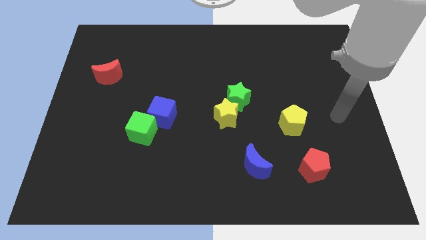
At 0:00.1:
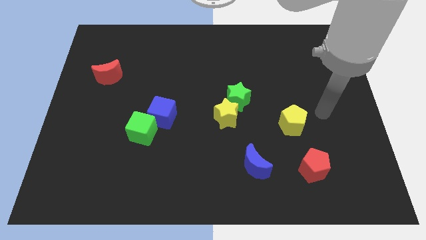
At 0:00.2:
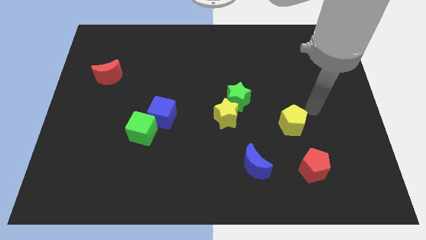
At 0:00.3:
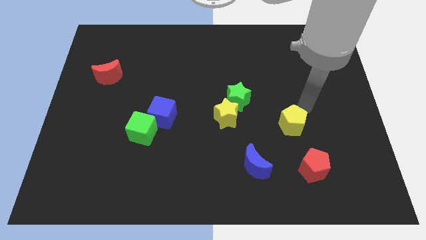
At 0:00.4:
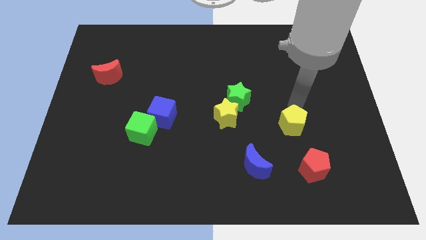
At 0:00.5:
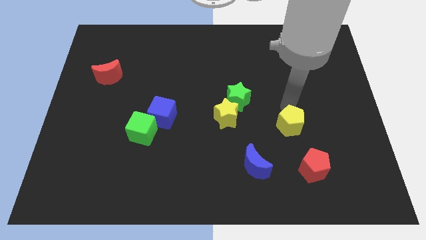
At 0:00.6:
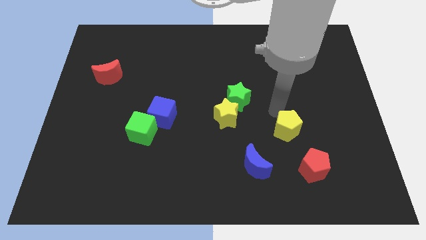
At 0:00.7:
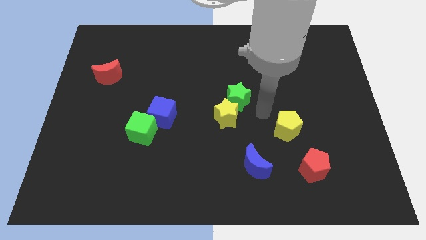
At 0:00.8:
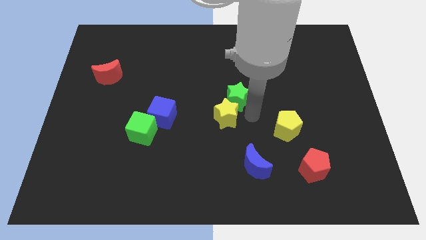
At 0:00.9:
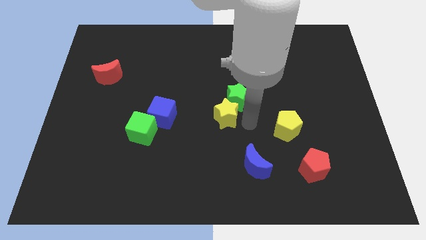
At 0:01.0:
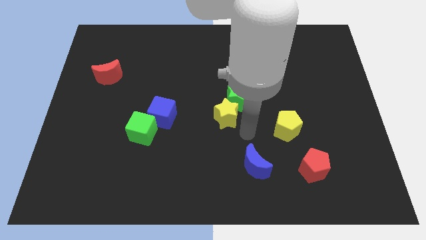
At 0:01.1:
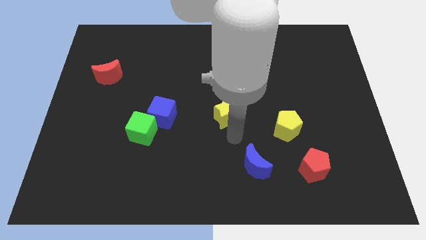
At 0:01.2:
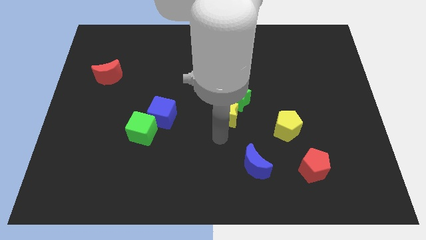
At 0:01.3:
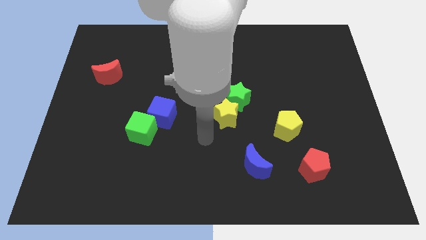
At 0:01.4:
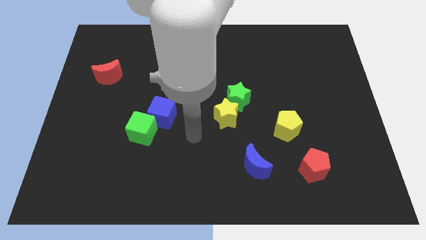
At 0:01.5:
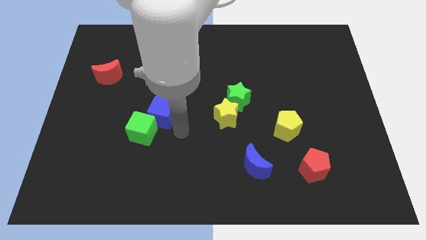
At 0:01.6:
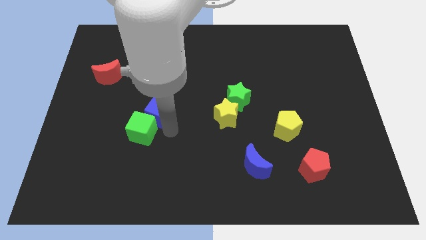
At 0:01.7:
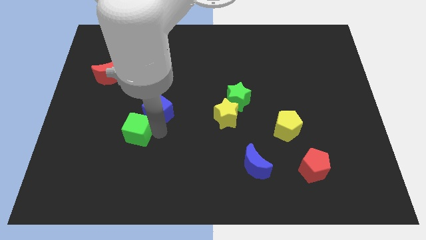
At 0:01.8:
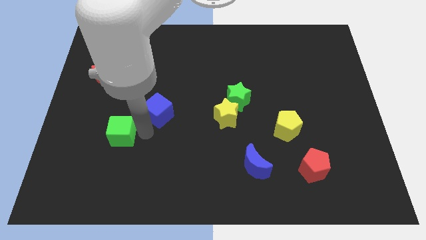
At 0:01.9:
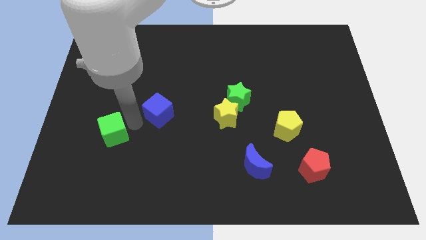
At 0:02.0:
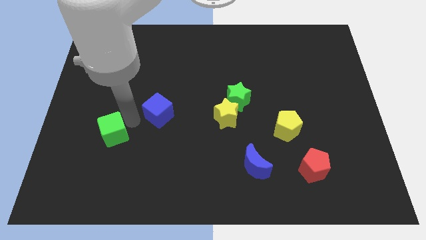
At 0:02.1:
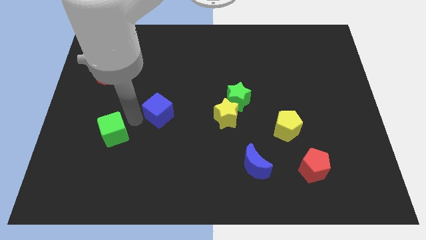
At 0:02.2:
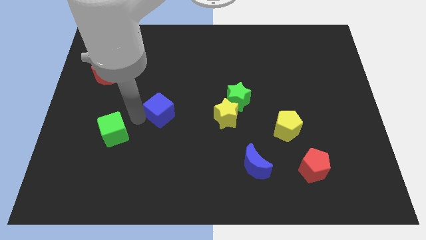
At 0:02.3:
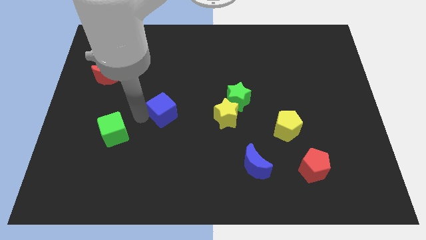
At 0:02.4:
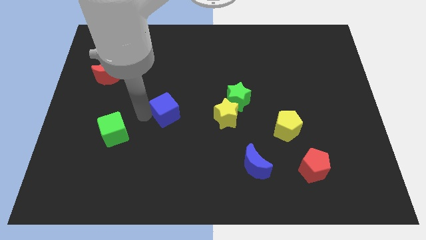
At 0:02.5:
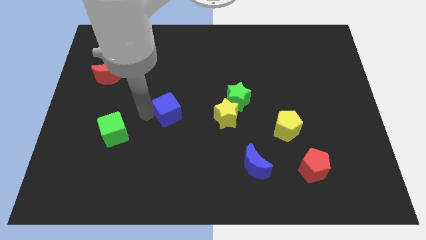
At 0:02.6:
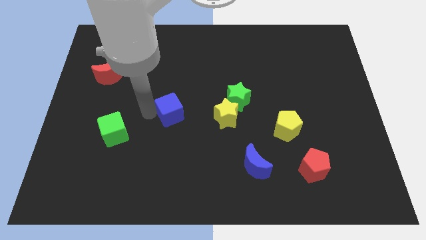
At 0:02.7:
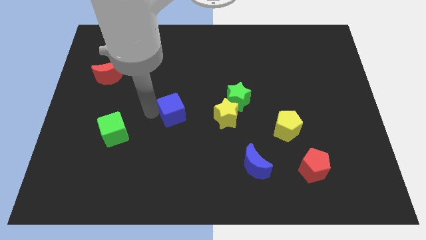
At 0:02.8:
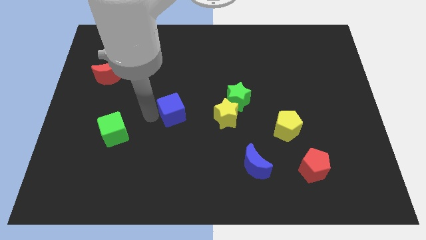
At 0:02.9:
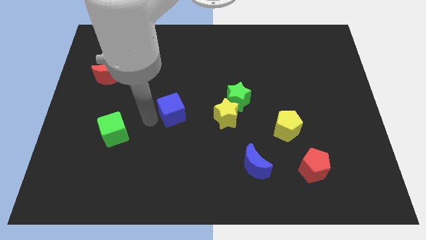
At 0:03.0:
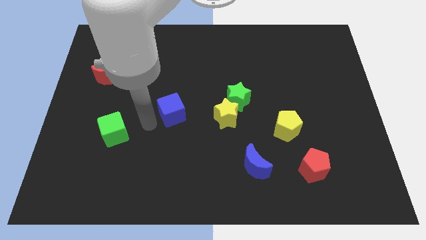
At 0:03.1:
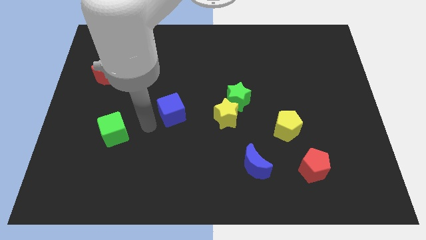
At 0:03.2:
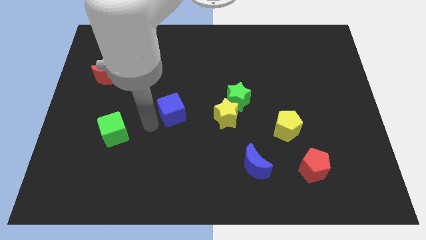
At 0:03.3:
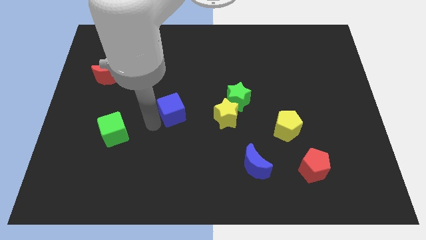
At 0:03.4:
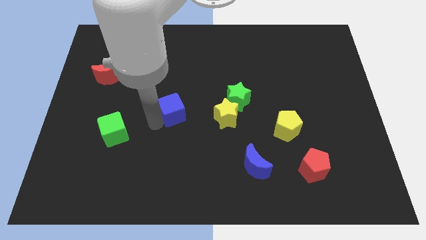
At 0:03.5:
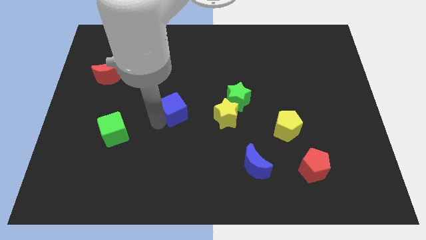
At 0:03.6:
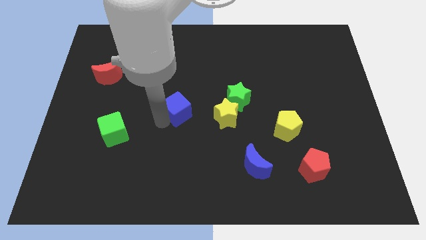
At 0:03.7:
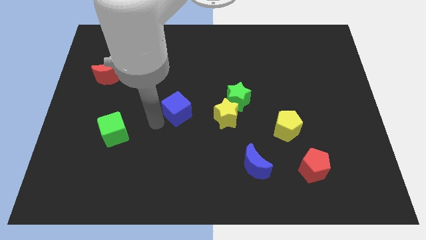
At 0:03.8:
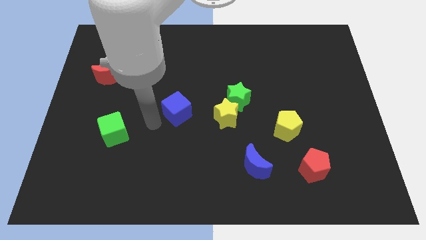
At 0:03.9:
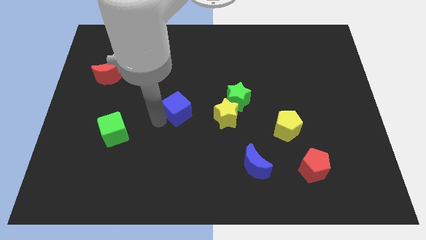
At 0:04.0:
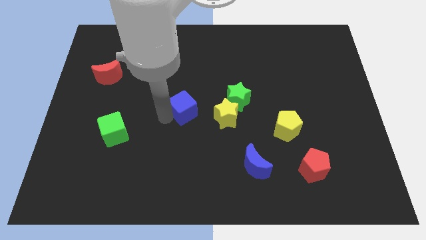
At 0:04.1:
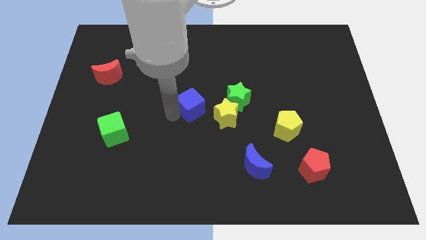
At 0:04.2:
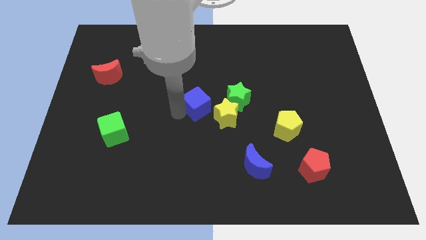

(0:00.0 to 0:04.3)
slightly push the blue cube upwards and right

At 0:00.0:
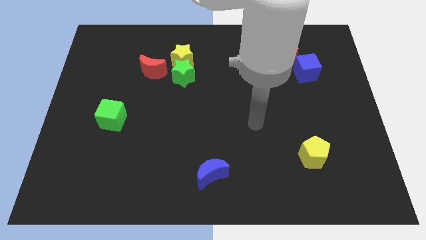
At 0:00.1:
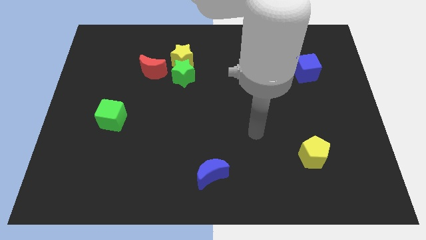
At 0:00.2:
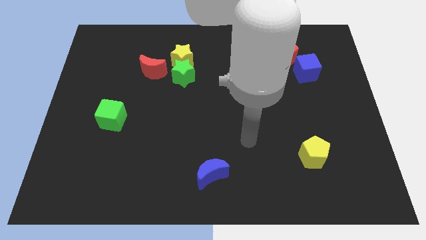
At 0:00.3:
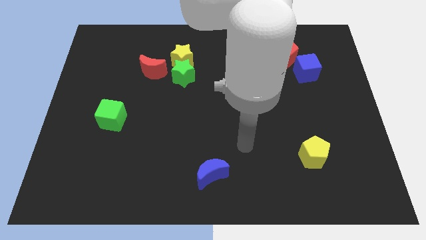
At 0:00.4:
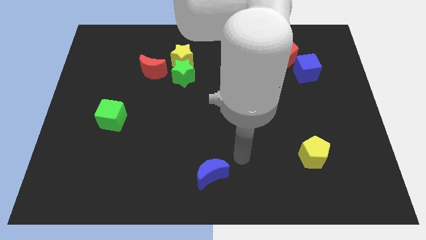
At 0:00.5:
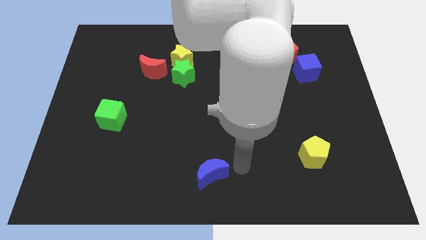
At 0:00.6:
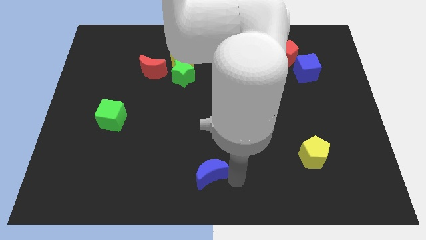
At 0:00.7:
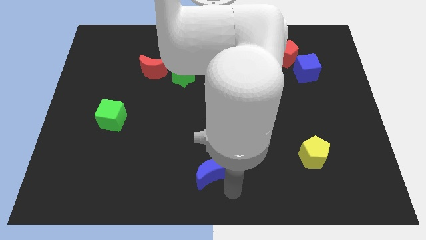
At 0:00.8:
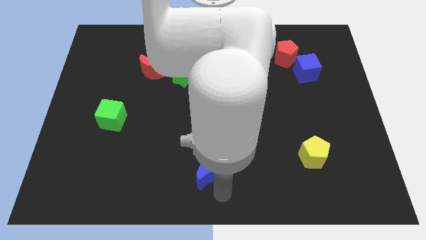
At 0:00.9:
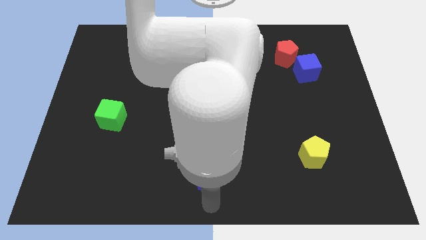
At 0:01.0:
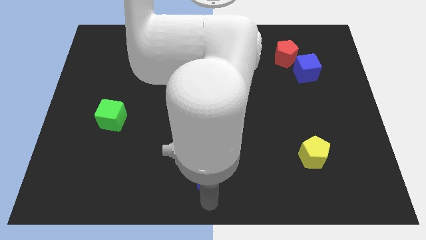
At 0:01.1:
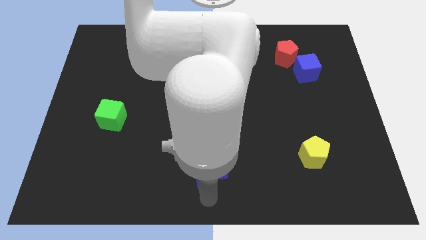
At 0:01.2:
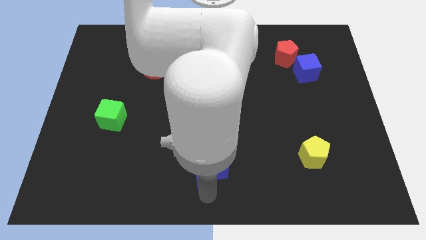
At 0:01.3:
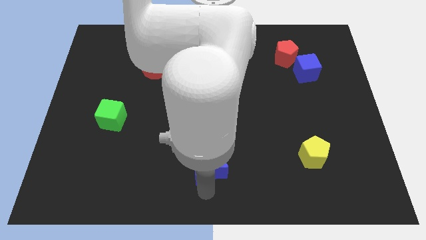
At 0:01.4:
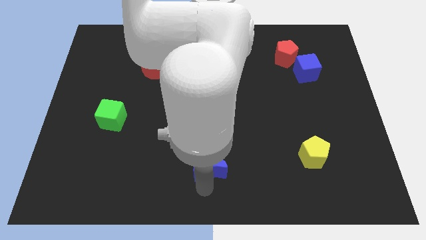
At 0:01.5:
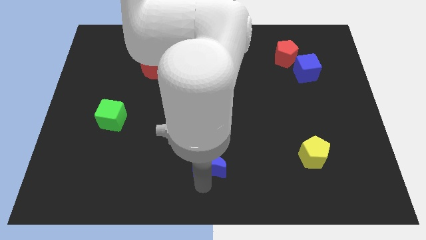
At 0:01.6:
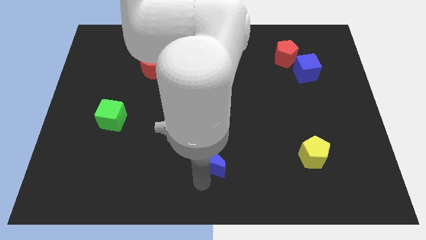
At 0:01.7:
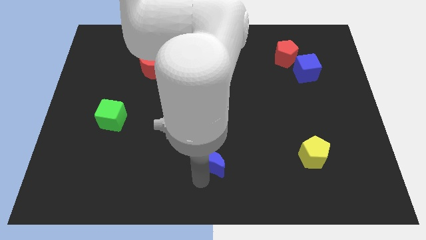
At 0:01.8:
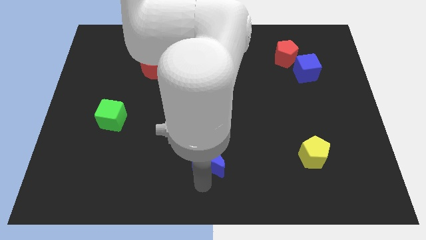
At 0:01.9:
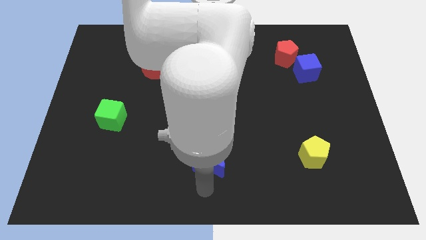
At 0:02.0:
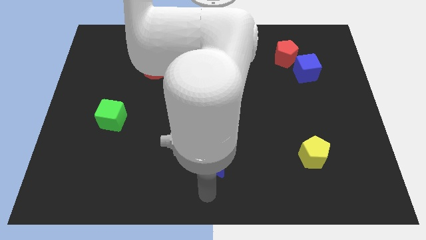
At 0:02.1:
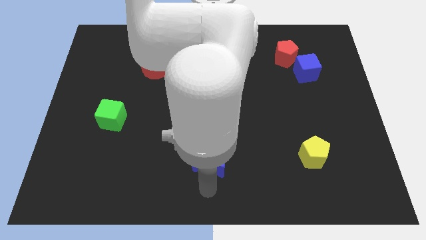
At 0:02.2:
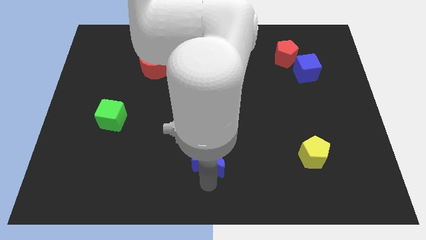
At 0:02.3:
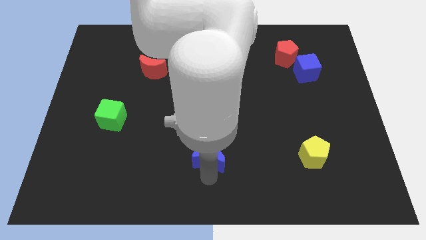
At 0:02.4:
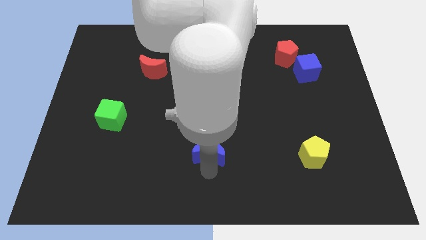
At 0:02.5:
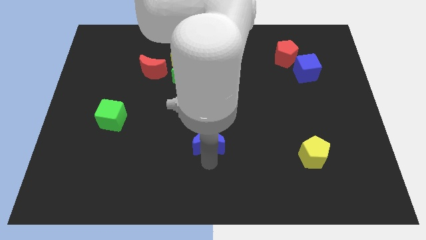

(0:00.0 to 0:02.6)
move the blue moon somewhat up

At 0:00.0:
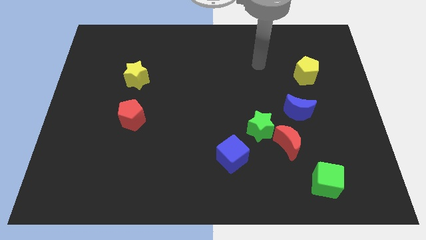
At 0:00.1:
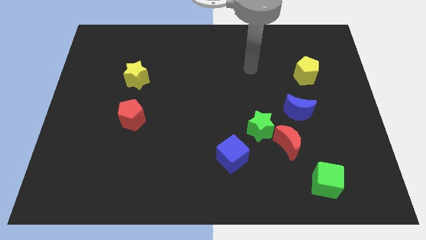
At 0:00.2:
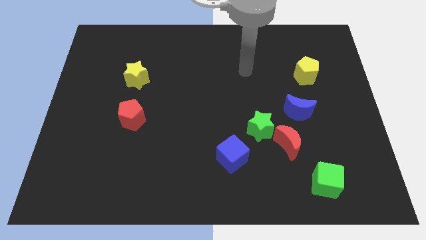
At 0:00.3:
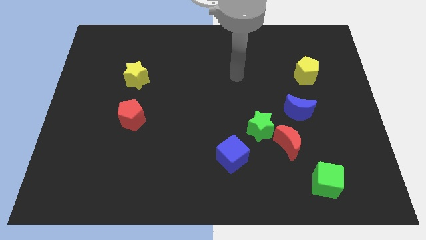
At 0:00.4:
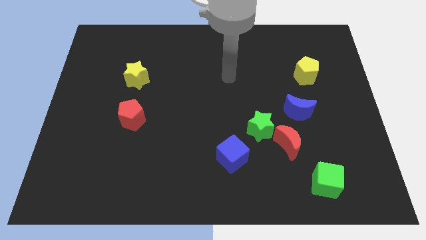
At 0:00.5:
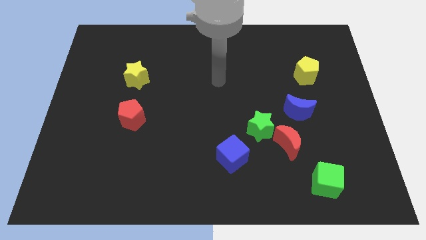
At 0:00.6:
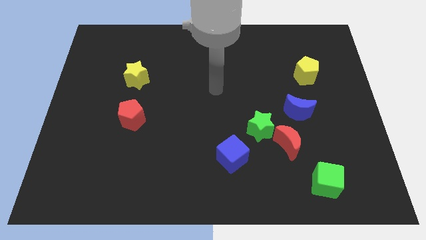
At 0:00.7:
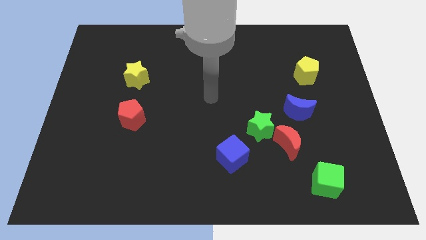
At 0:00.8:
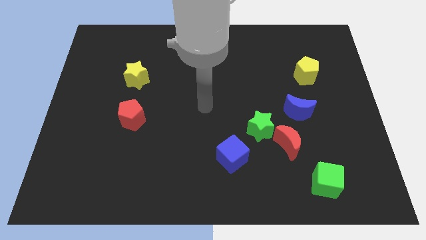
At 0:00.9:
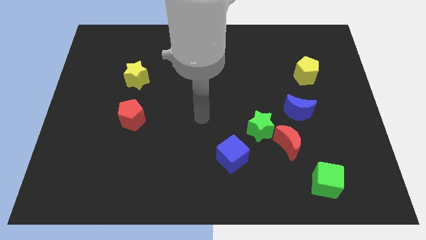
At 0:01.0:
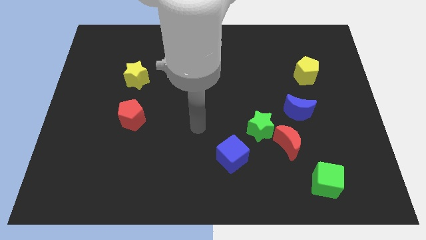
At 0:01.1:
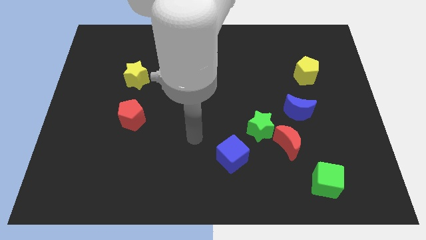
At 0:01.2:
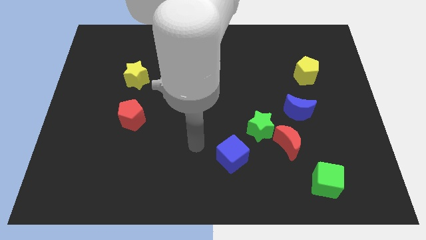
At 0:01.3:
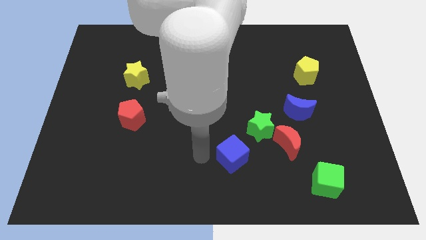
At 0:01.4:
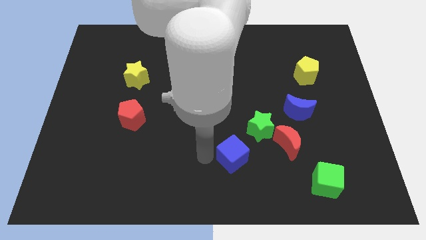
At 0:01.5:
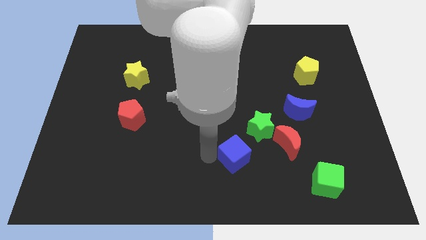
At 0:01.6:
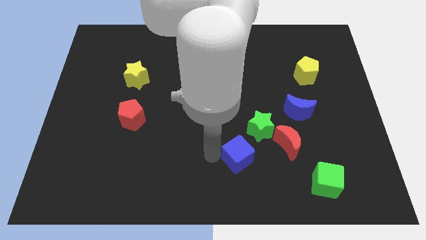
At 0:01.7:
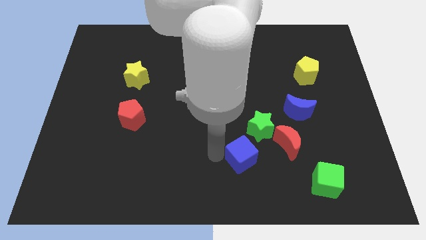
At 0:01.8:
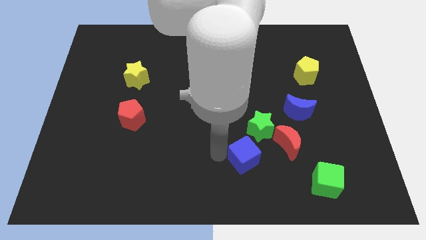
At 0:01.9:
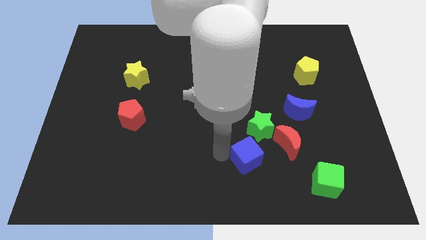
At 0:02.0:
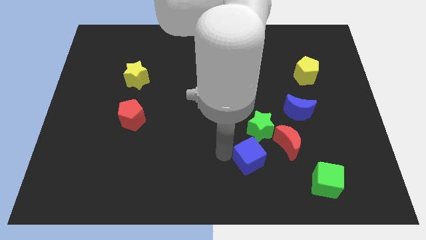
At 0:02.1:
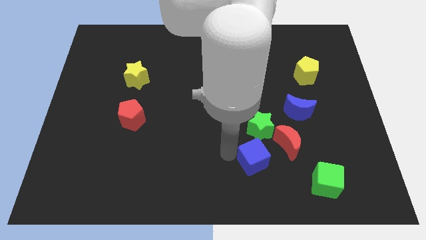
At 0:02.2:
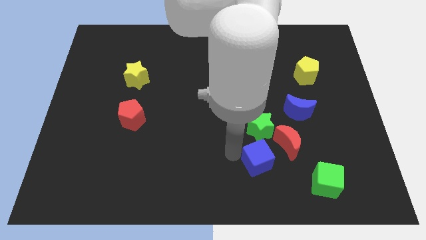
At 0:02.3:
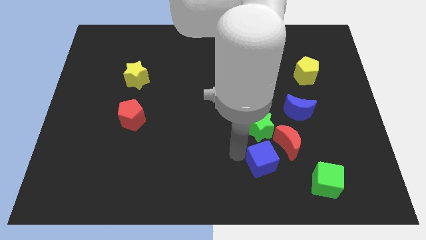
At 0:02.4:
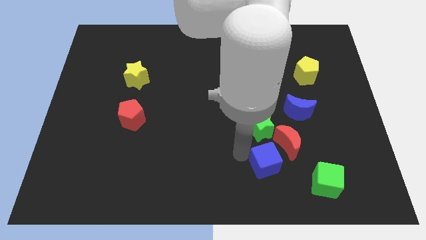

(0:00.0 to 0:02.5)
move the blue cube right a bit
